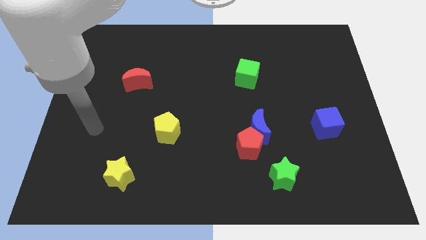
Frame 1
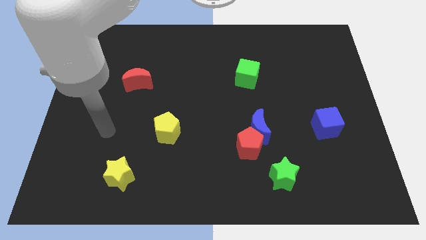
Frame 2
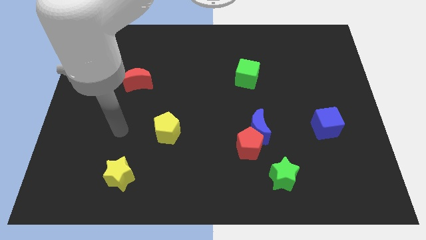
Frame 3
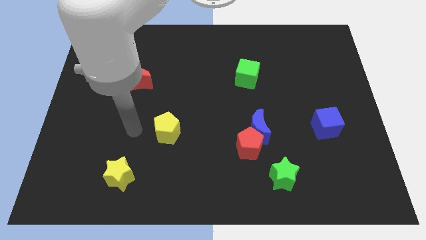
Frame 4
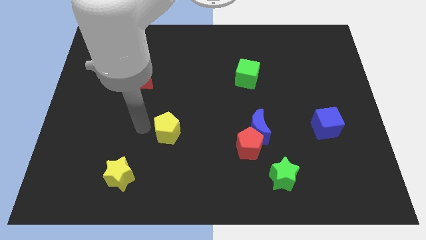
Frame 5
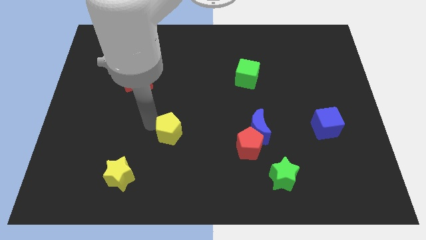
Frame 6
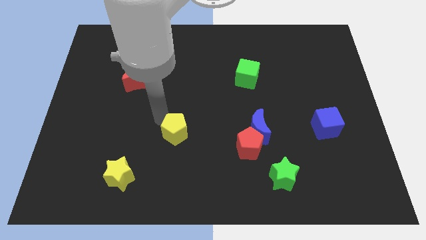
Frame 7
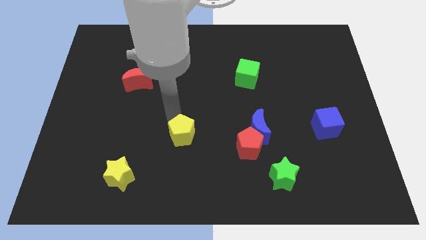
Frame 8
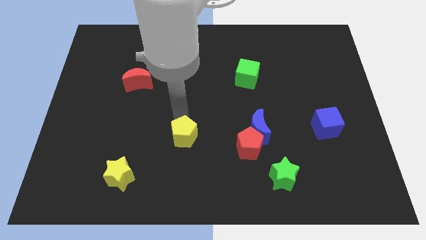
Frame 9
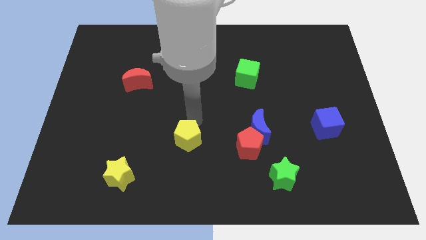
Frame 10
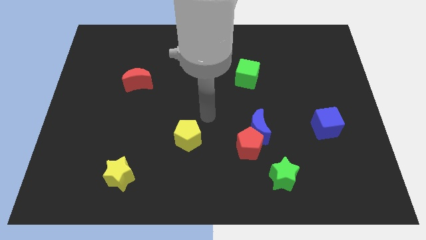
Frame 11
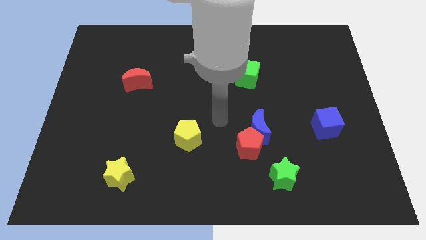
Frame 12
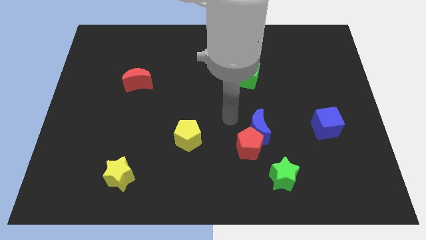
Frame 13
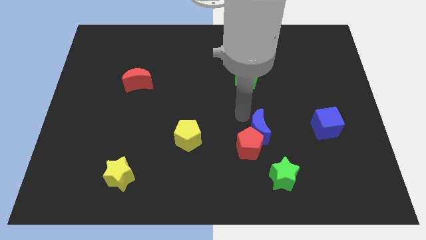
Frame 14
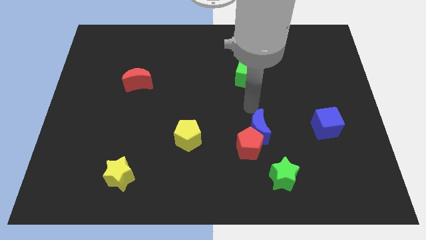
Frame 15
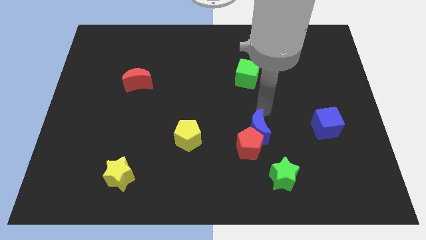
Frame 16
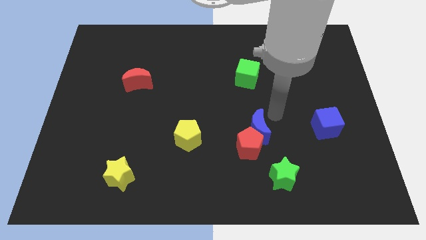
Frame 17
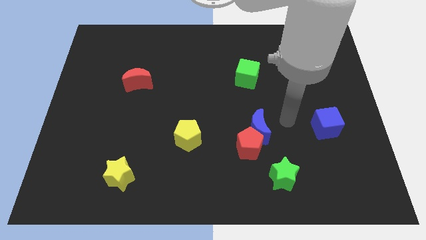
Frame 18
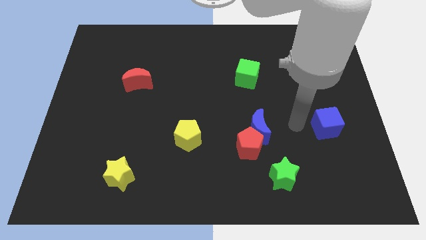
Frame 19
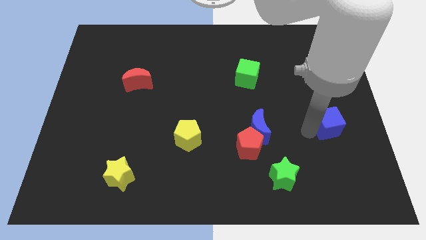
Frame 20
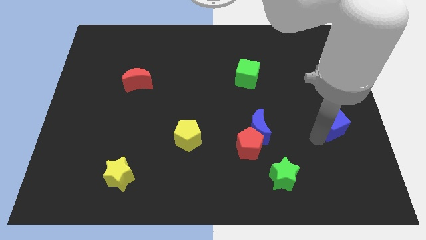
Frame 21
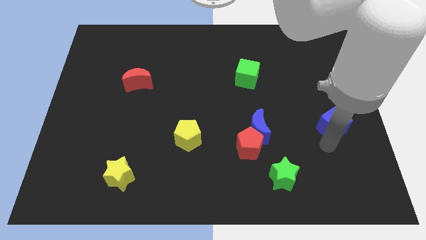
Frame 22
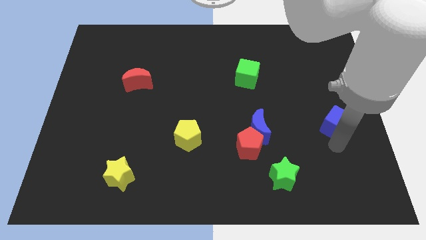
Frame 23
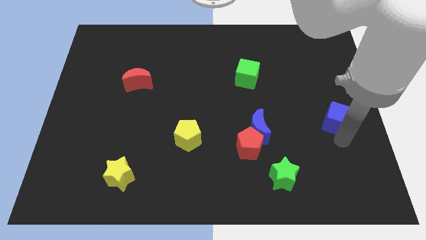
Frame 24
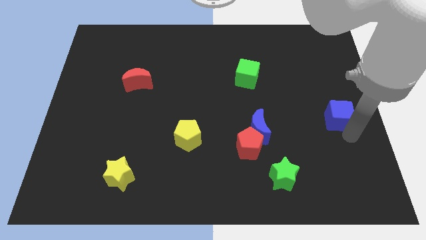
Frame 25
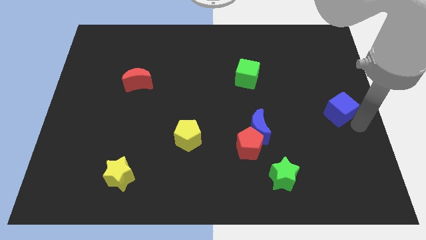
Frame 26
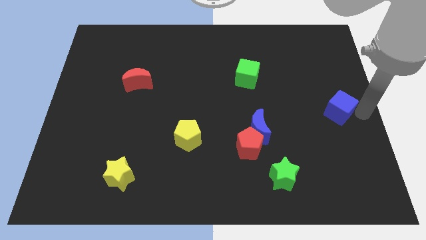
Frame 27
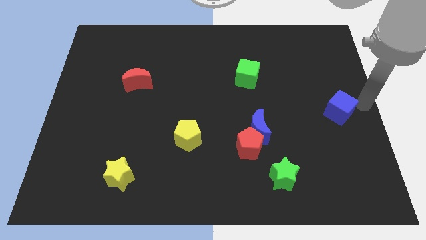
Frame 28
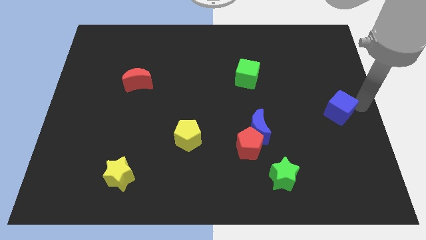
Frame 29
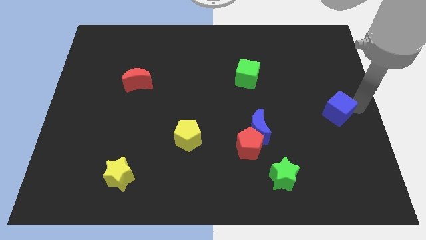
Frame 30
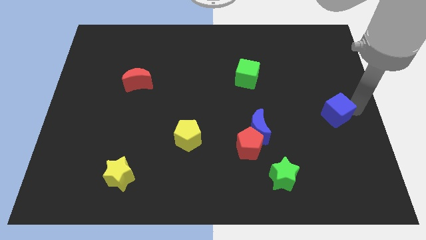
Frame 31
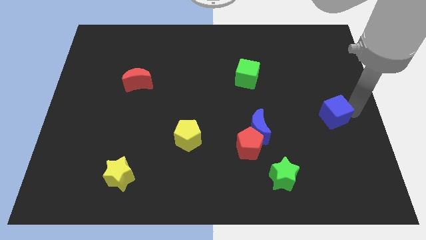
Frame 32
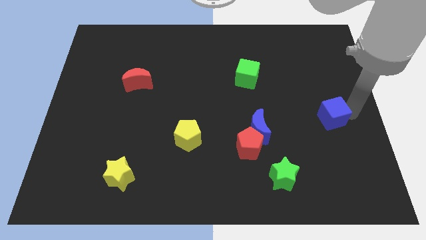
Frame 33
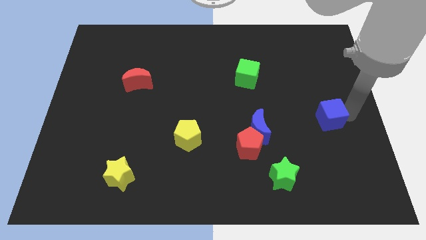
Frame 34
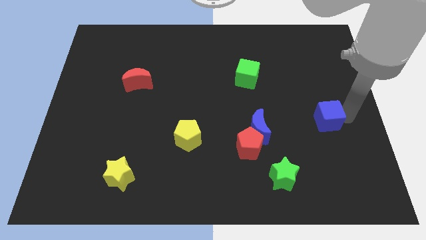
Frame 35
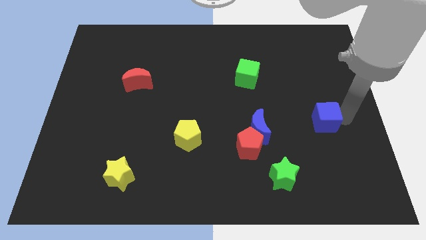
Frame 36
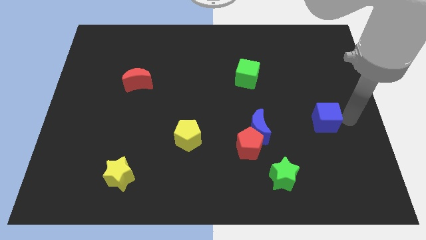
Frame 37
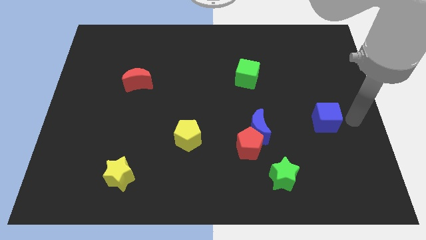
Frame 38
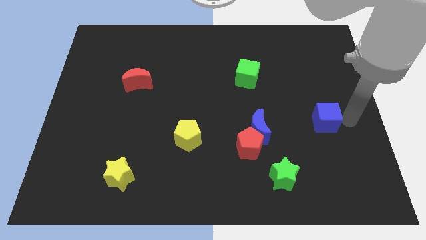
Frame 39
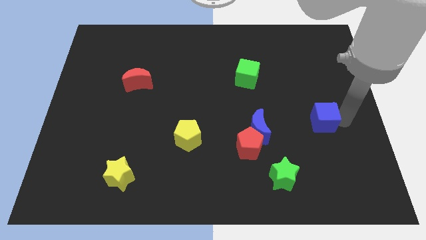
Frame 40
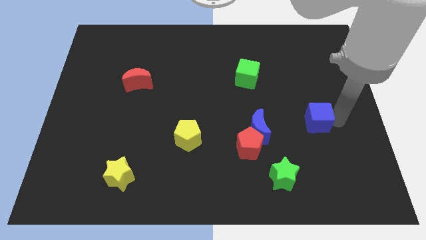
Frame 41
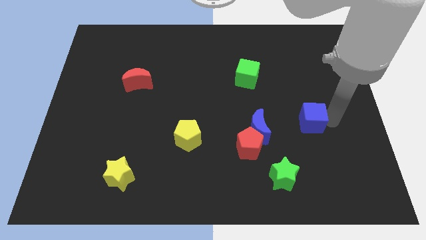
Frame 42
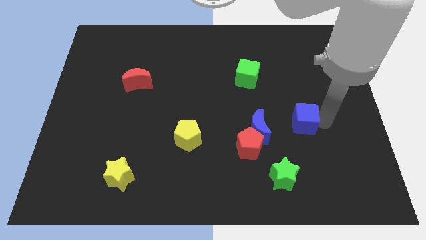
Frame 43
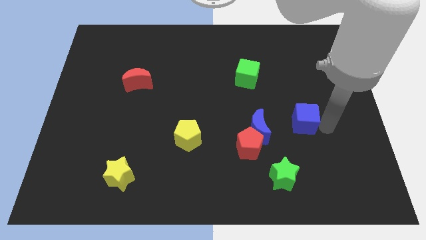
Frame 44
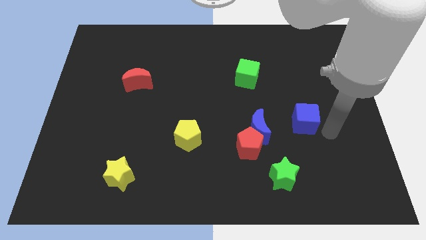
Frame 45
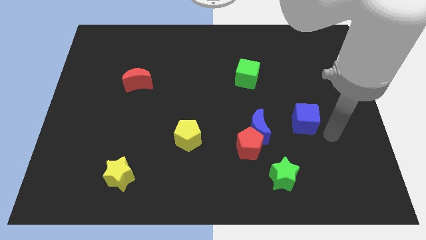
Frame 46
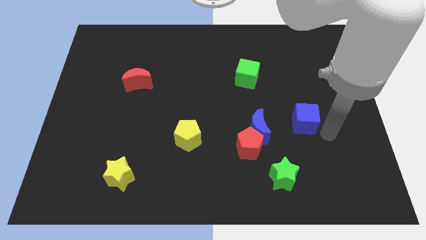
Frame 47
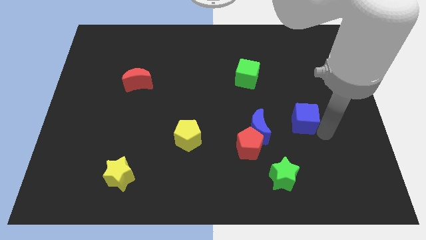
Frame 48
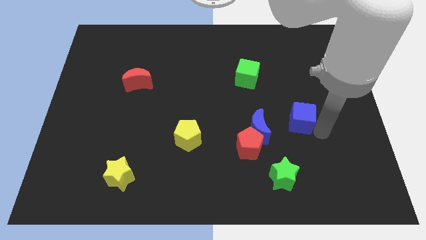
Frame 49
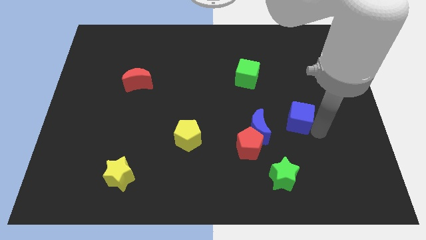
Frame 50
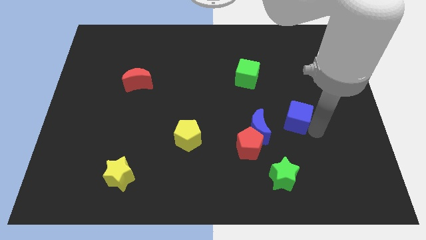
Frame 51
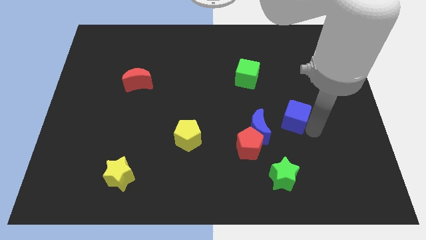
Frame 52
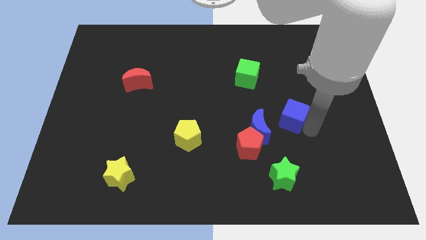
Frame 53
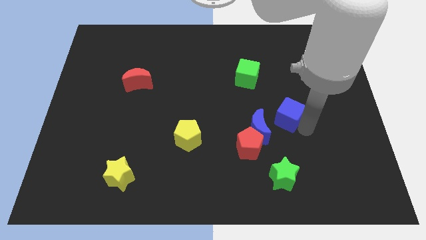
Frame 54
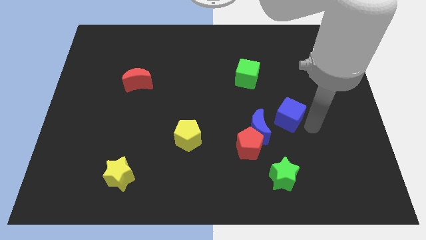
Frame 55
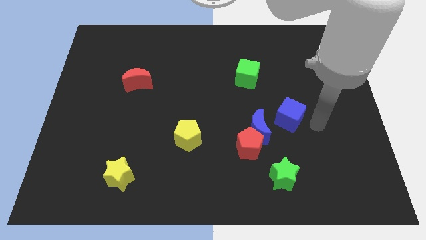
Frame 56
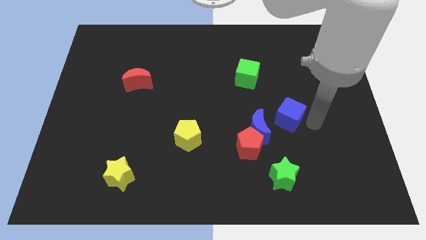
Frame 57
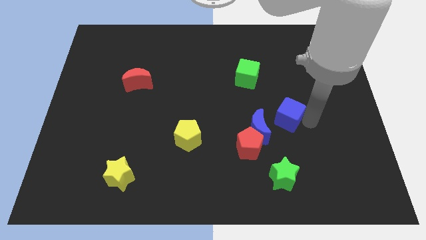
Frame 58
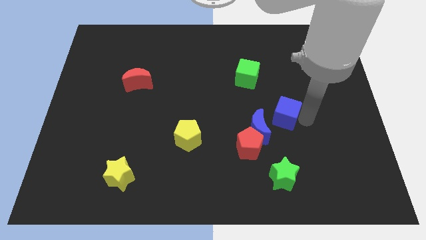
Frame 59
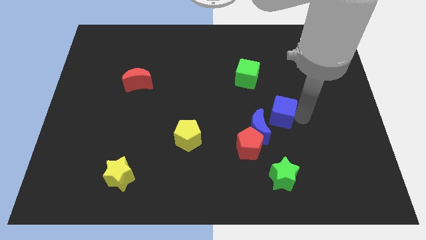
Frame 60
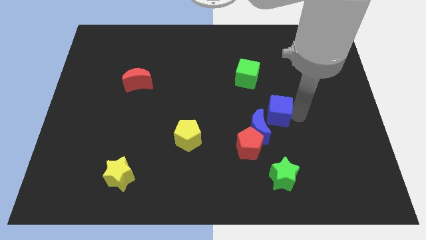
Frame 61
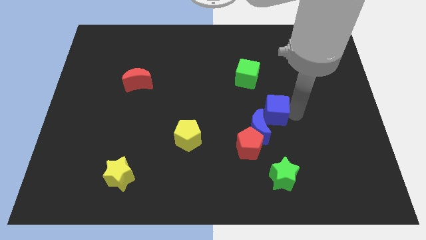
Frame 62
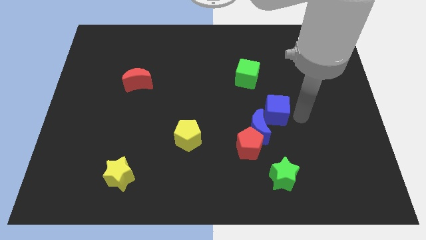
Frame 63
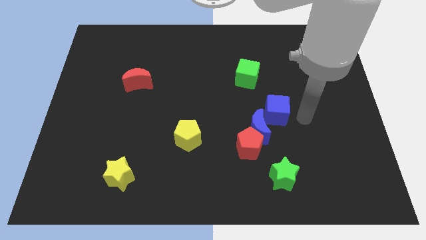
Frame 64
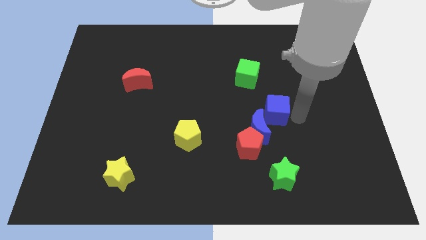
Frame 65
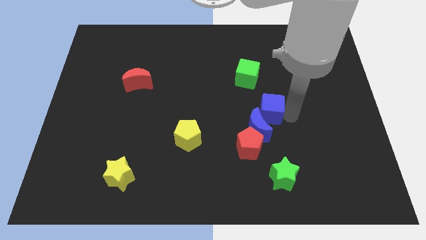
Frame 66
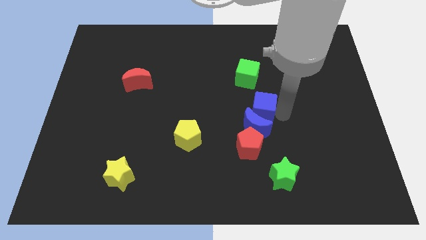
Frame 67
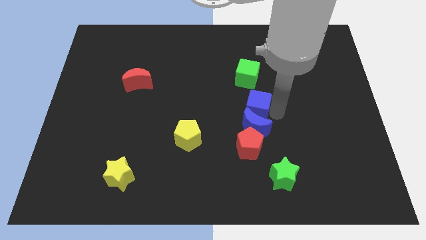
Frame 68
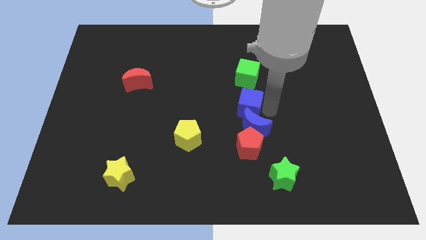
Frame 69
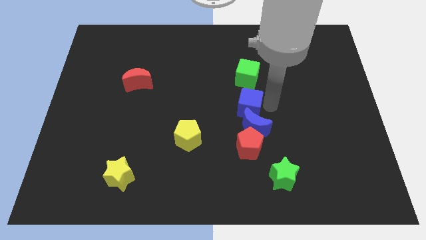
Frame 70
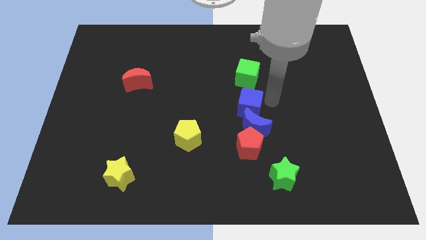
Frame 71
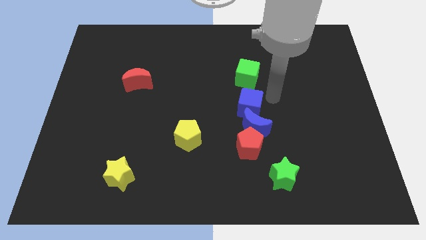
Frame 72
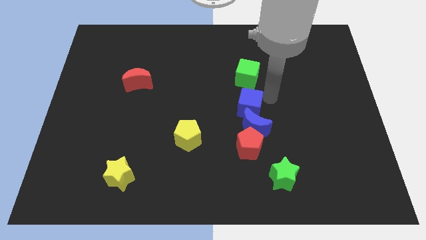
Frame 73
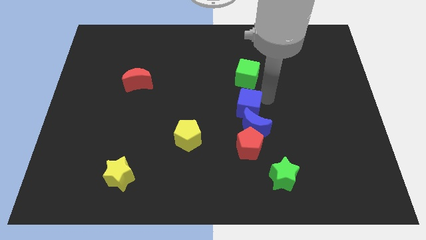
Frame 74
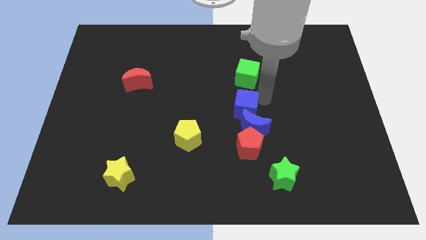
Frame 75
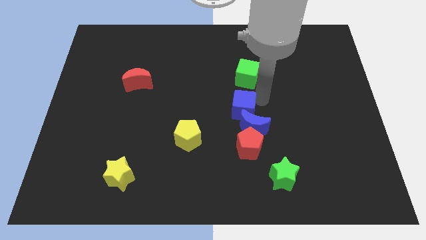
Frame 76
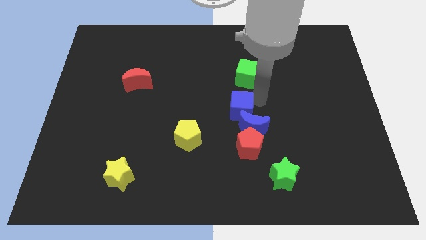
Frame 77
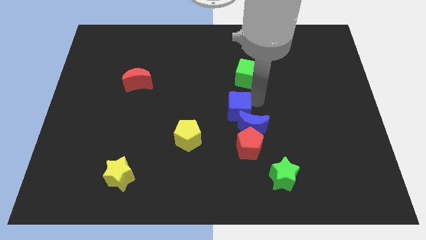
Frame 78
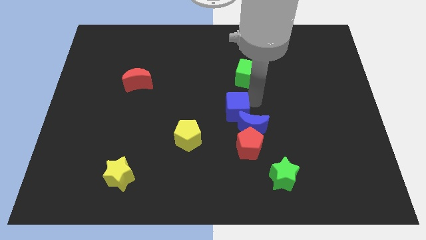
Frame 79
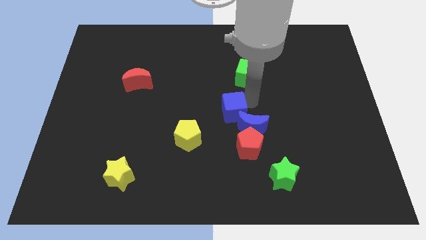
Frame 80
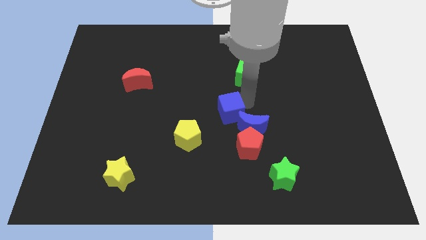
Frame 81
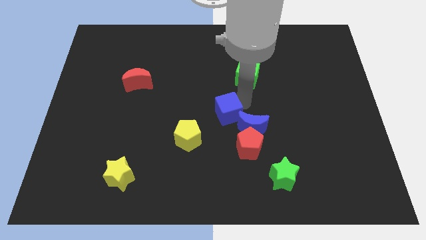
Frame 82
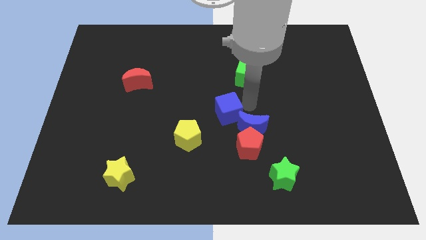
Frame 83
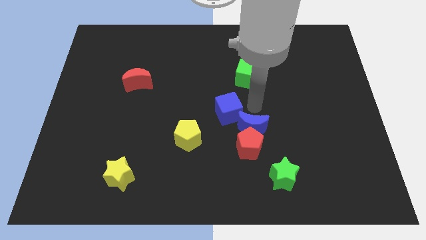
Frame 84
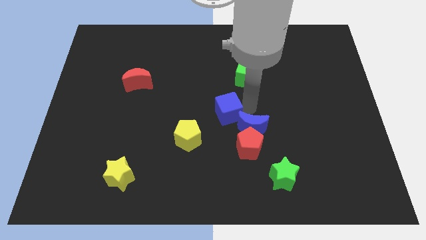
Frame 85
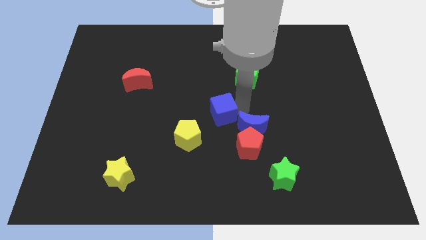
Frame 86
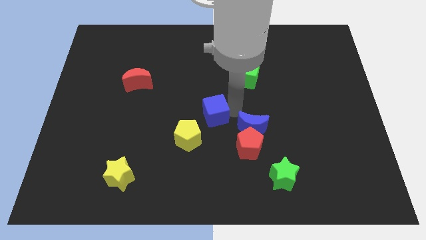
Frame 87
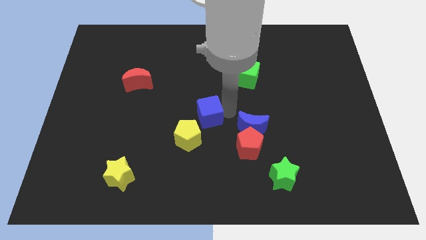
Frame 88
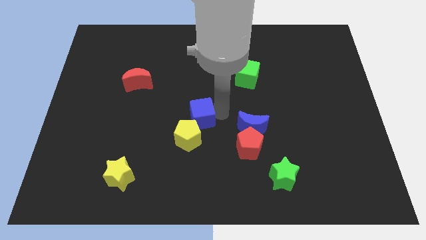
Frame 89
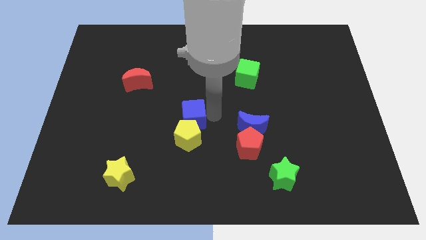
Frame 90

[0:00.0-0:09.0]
put the blue cube to the top left of the yellow pentagon
